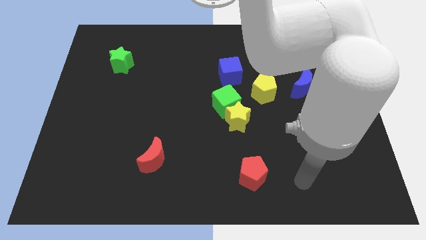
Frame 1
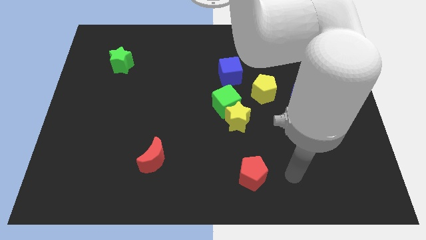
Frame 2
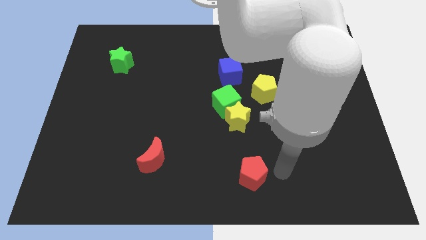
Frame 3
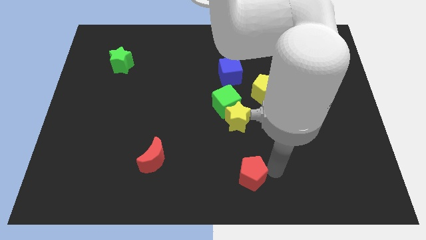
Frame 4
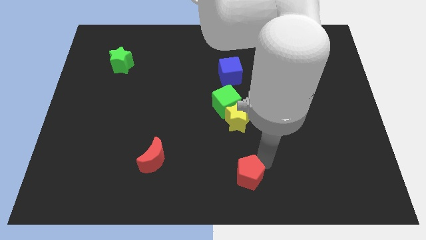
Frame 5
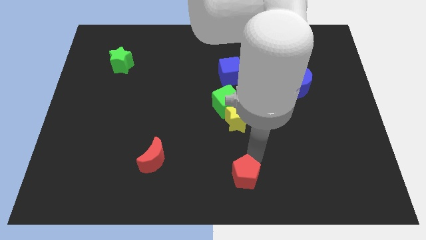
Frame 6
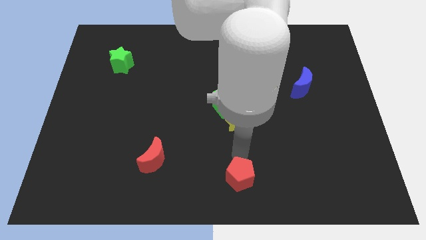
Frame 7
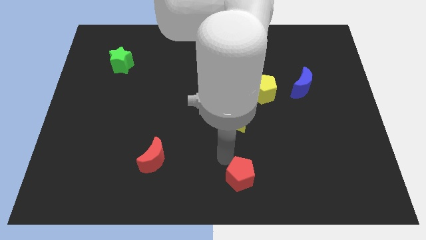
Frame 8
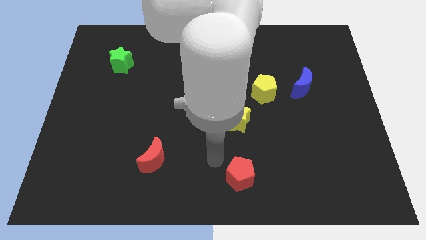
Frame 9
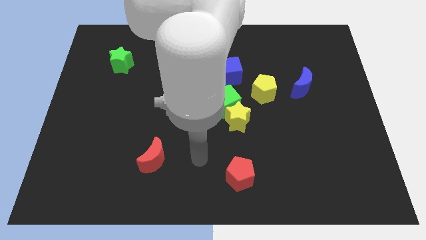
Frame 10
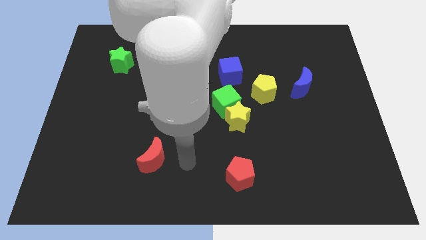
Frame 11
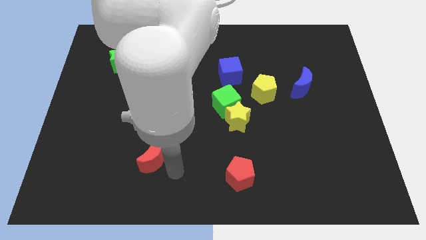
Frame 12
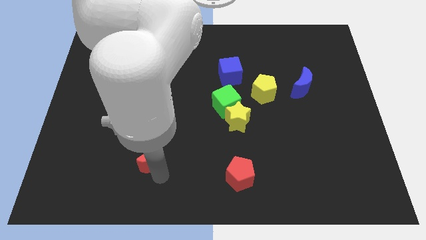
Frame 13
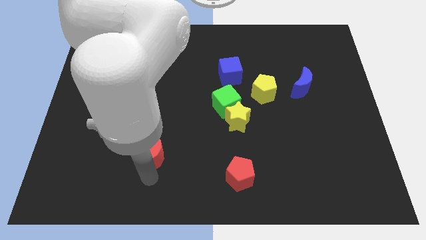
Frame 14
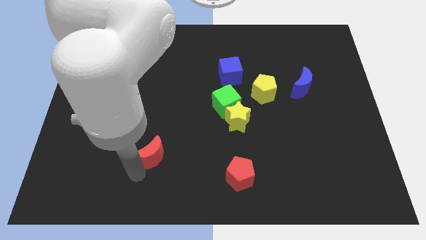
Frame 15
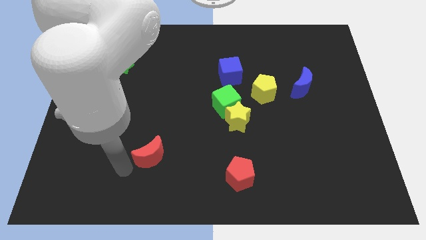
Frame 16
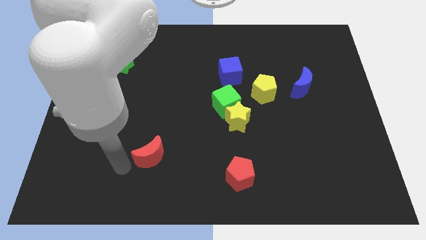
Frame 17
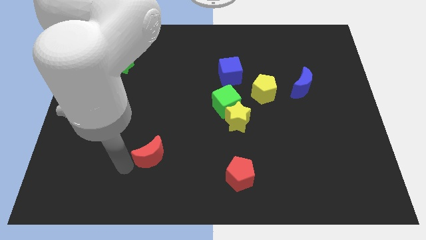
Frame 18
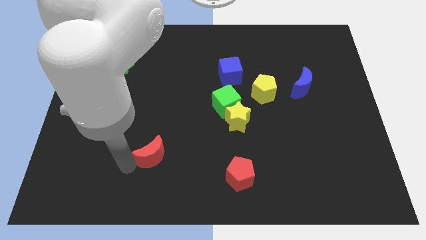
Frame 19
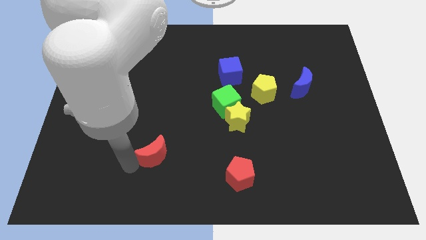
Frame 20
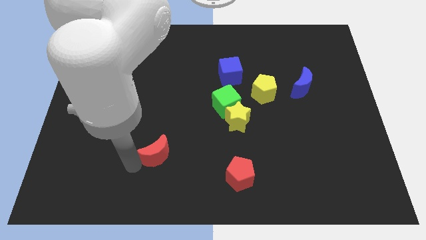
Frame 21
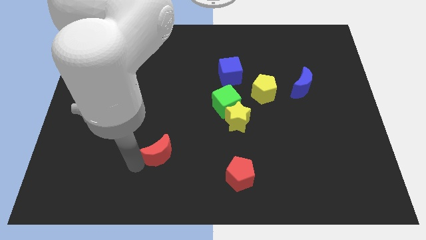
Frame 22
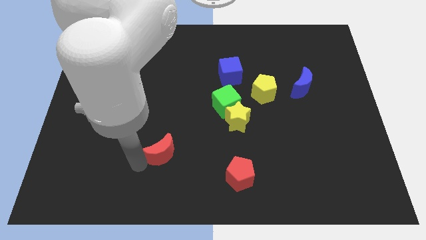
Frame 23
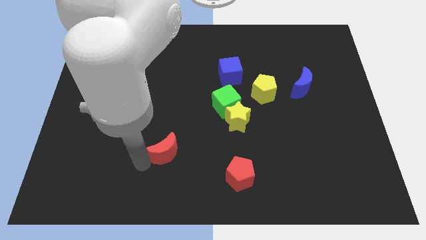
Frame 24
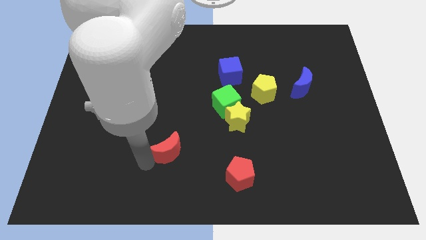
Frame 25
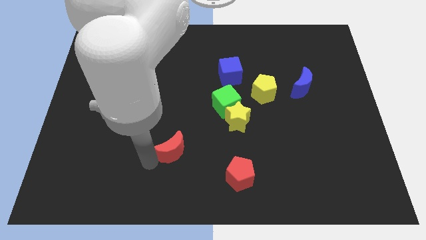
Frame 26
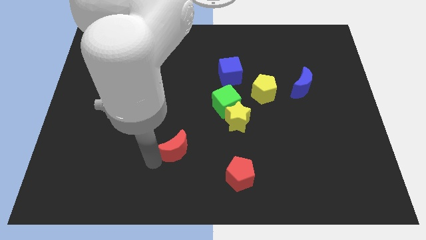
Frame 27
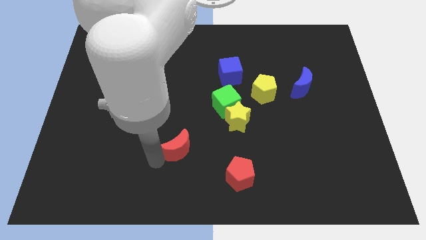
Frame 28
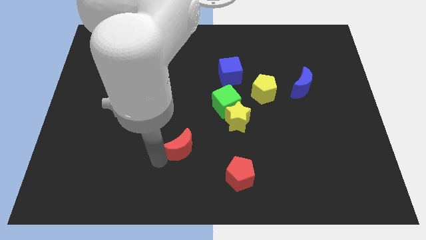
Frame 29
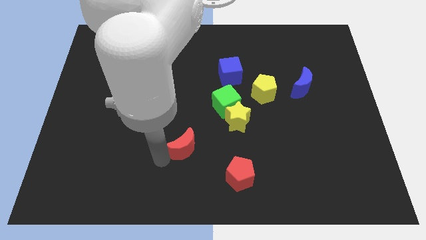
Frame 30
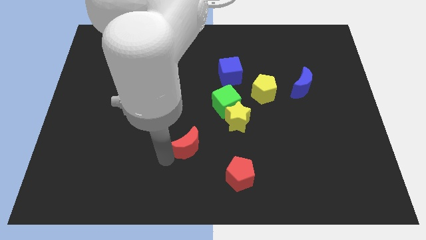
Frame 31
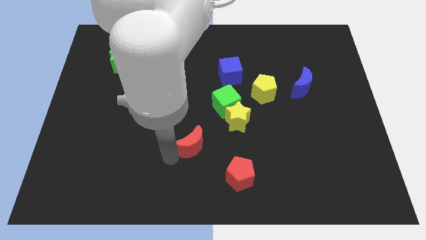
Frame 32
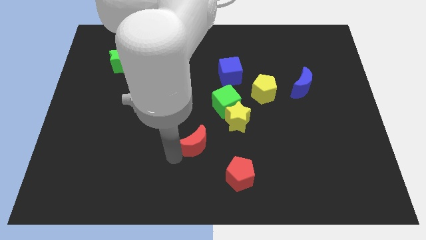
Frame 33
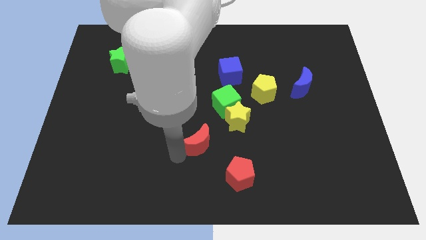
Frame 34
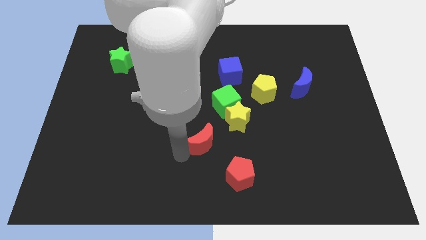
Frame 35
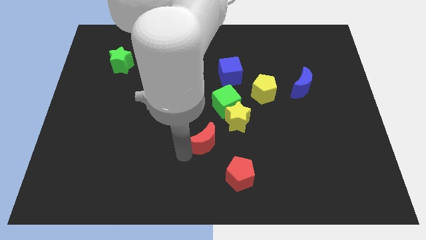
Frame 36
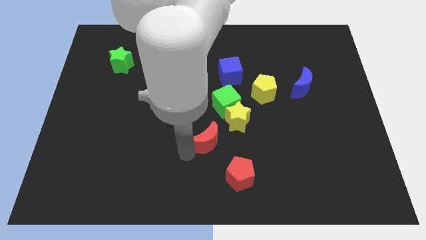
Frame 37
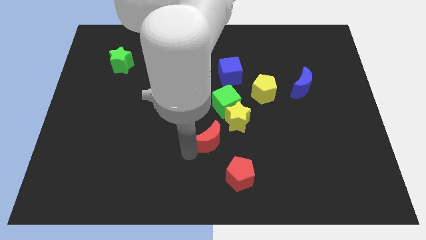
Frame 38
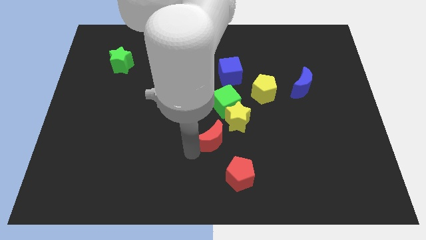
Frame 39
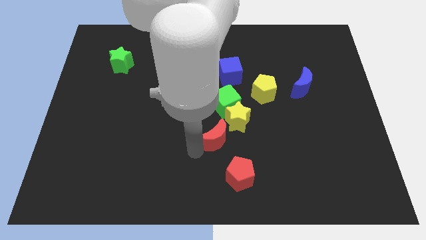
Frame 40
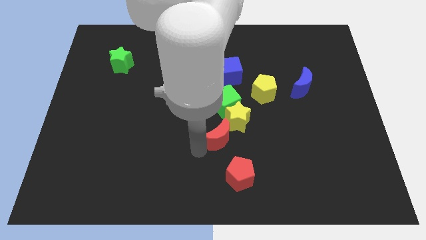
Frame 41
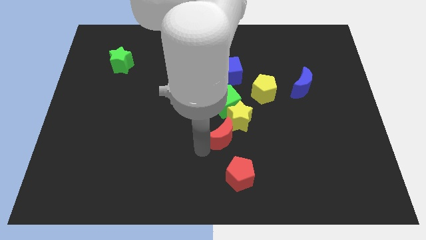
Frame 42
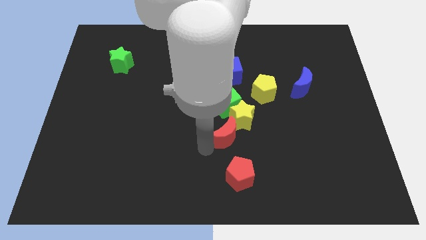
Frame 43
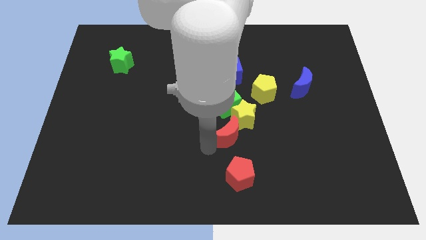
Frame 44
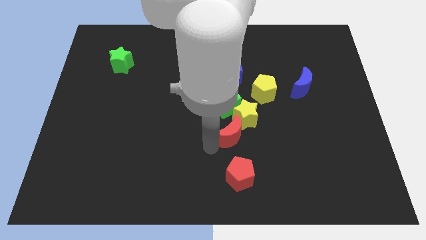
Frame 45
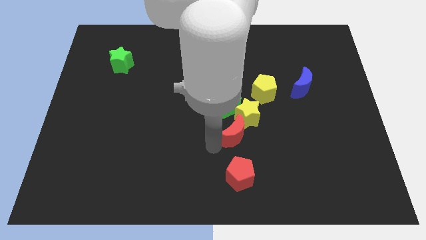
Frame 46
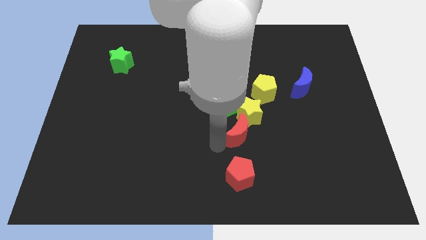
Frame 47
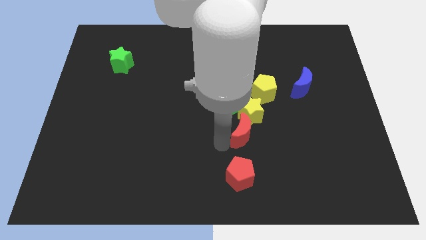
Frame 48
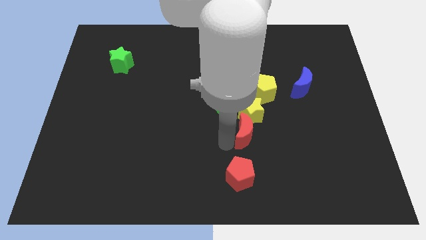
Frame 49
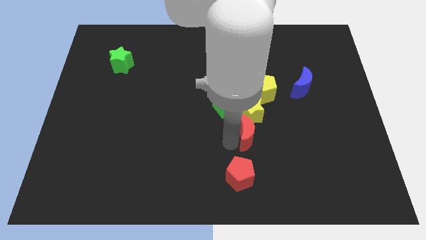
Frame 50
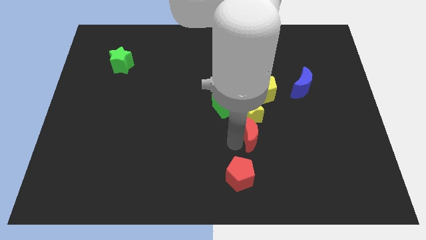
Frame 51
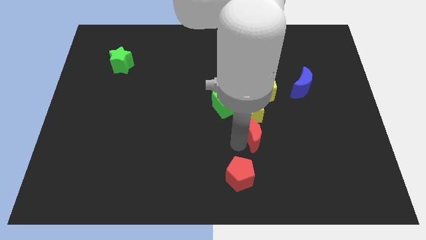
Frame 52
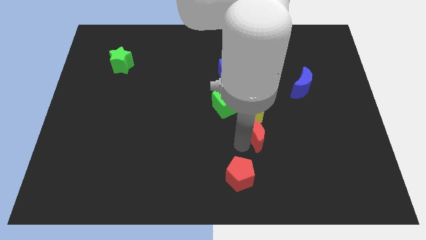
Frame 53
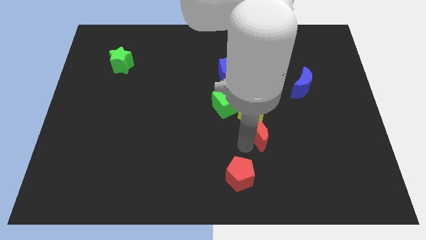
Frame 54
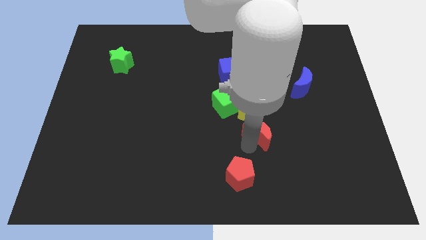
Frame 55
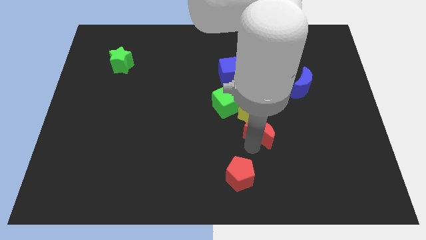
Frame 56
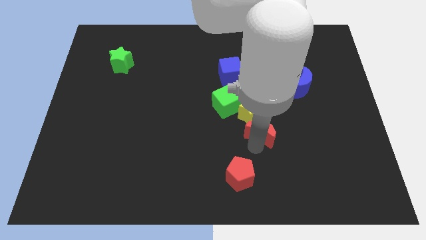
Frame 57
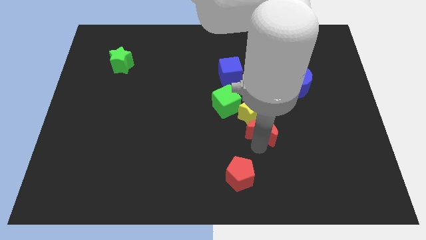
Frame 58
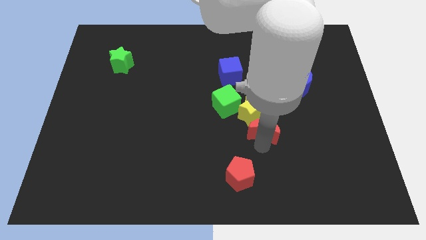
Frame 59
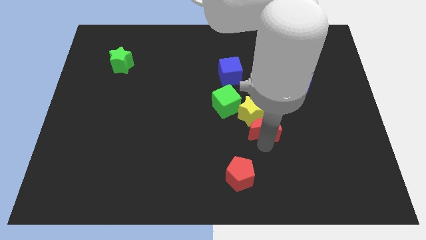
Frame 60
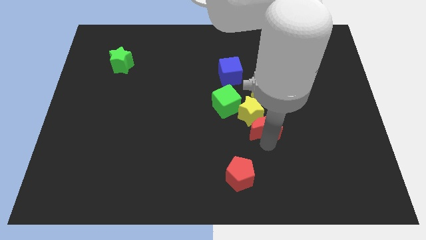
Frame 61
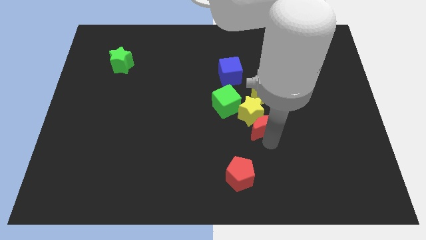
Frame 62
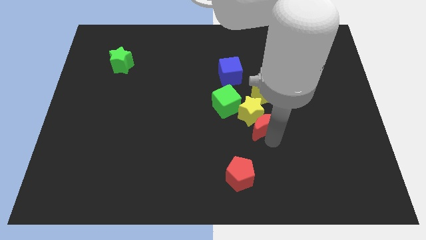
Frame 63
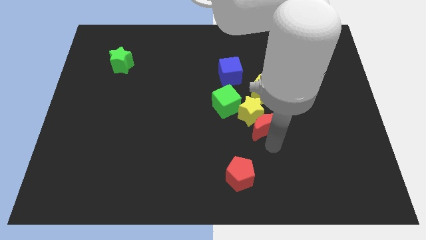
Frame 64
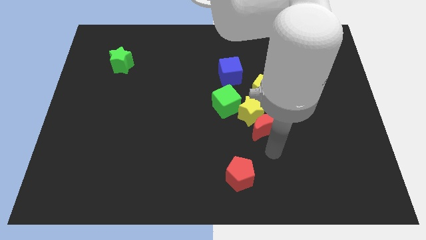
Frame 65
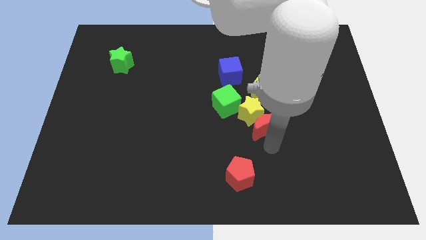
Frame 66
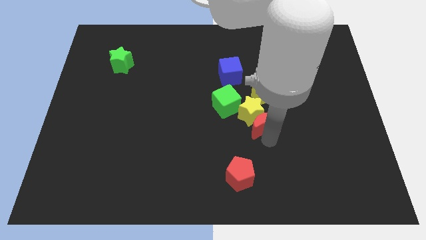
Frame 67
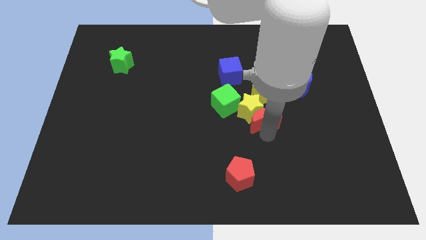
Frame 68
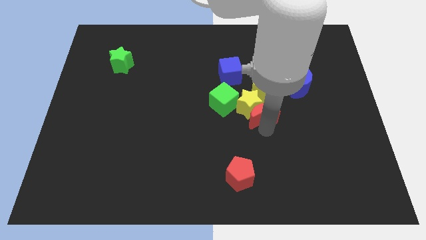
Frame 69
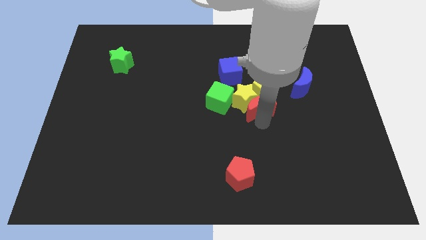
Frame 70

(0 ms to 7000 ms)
move the red moon to the yellow pentagon

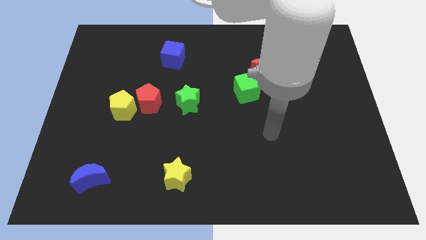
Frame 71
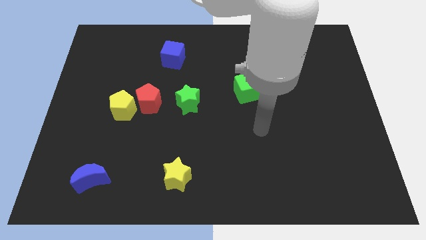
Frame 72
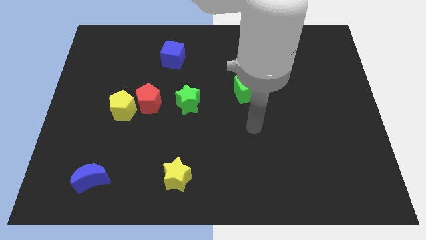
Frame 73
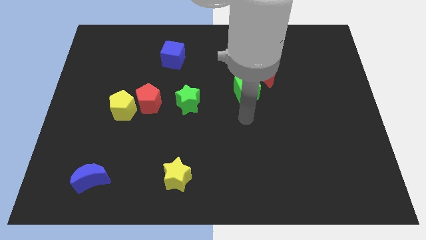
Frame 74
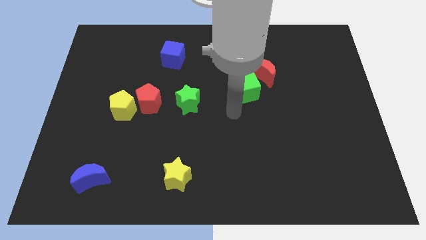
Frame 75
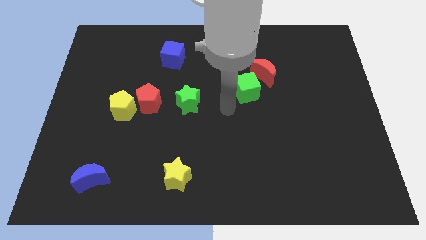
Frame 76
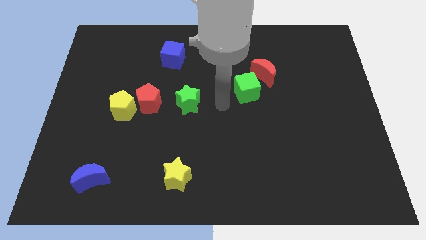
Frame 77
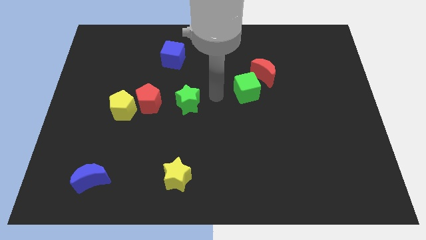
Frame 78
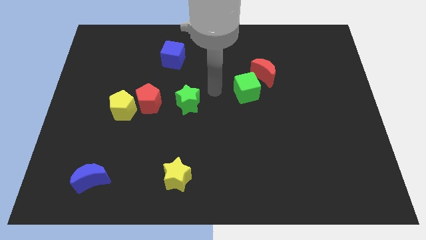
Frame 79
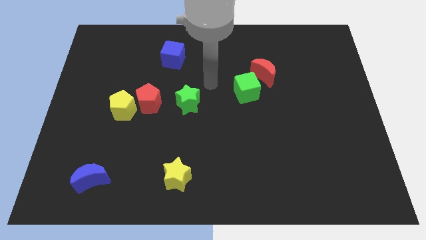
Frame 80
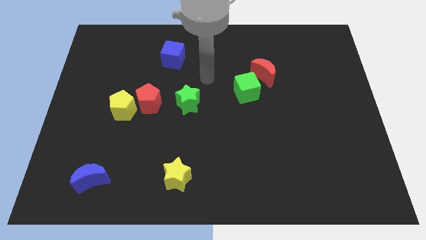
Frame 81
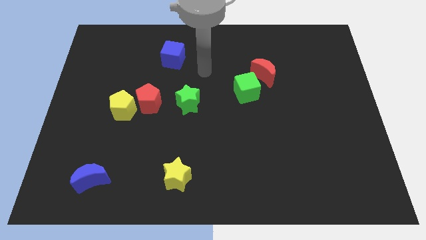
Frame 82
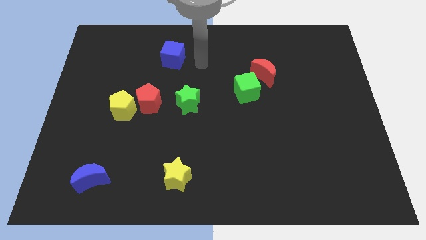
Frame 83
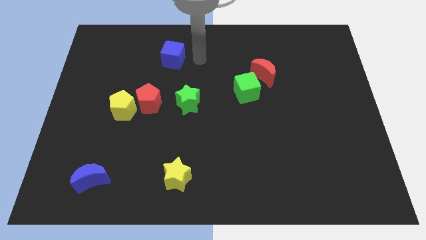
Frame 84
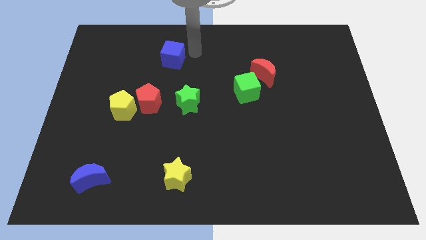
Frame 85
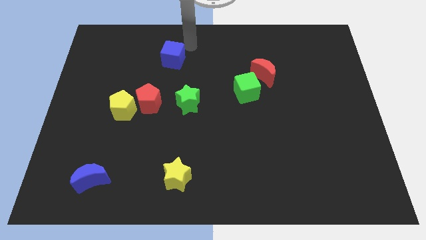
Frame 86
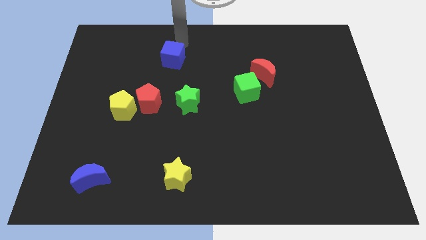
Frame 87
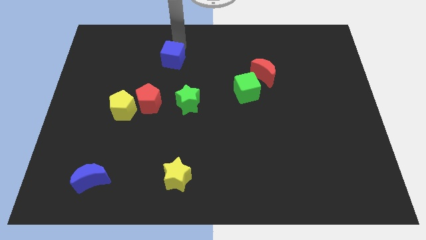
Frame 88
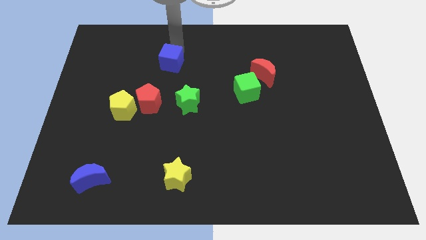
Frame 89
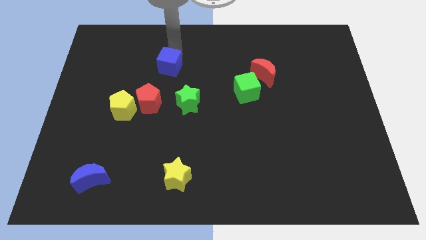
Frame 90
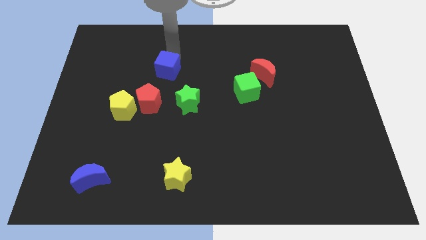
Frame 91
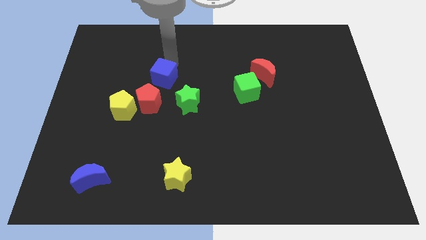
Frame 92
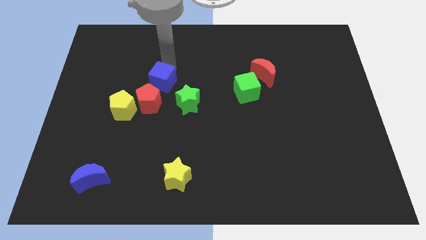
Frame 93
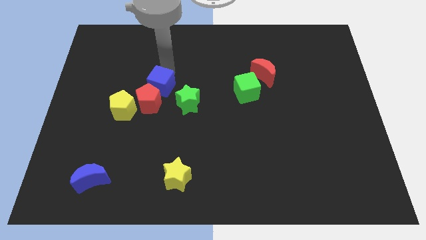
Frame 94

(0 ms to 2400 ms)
push the blue cube close to the red pentagon
